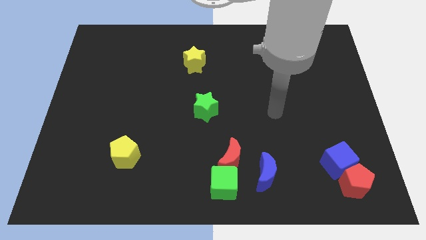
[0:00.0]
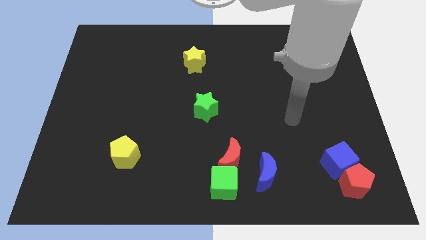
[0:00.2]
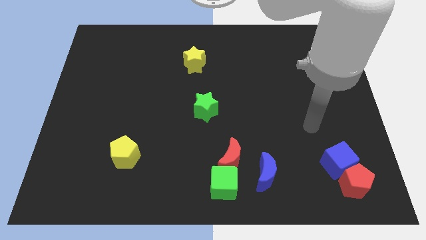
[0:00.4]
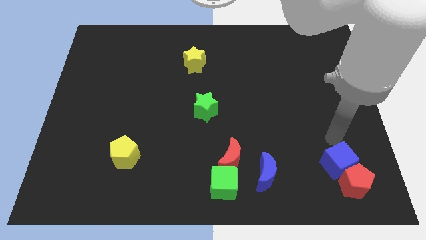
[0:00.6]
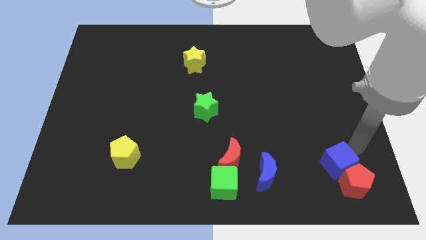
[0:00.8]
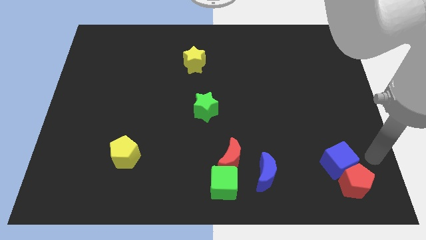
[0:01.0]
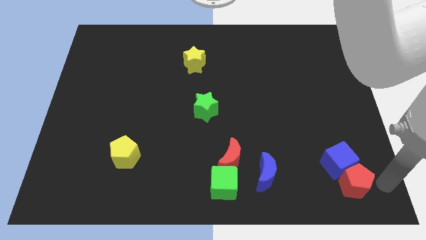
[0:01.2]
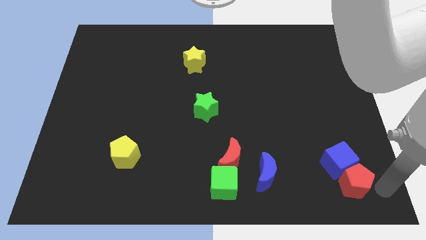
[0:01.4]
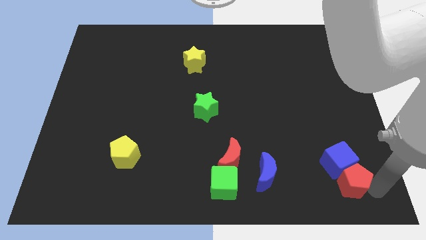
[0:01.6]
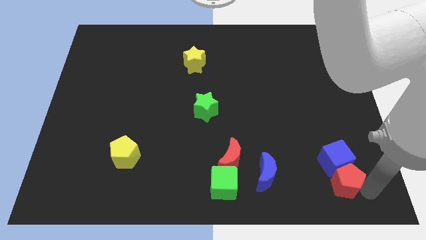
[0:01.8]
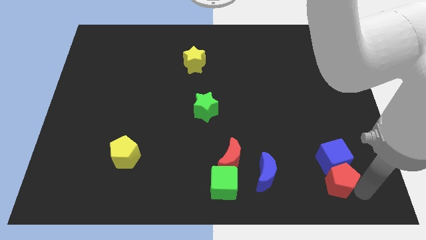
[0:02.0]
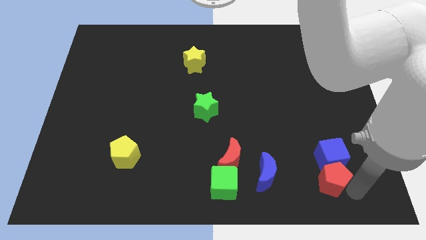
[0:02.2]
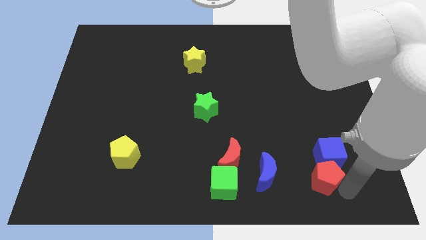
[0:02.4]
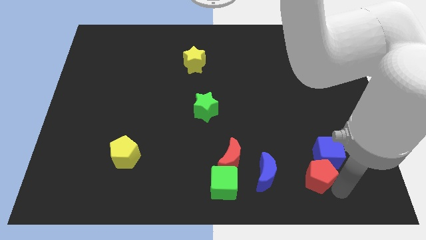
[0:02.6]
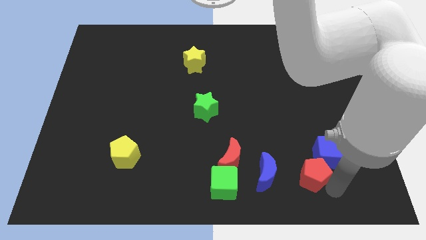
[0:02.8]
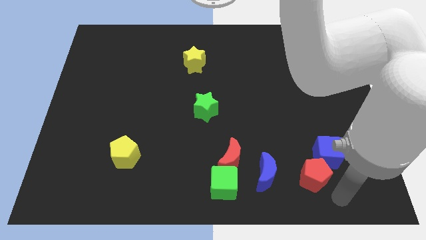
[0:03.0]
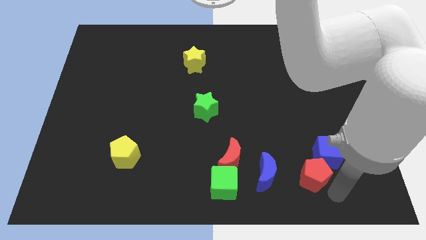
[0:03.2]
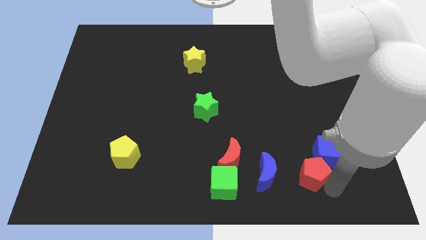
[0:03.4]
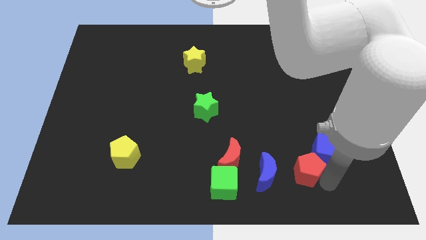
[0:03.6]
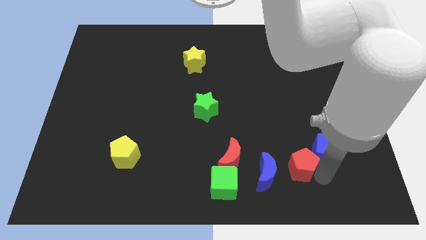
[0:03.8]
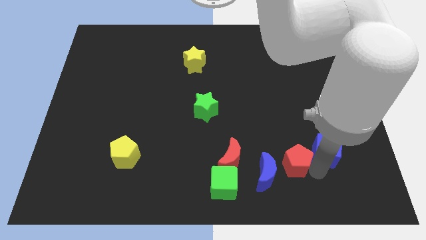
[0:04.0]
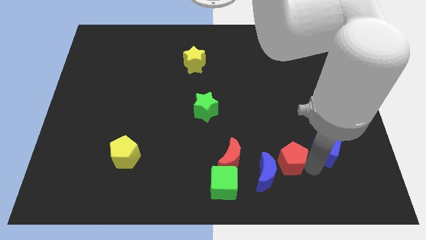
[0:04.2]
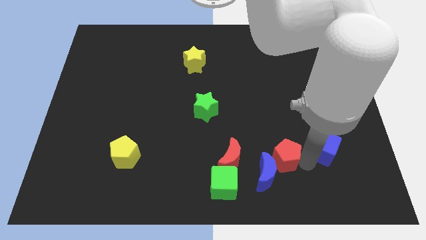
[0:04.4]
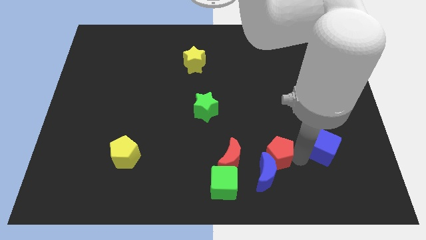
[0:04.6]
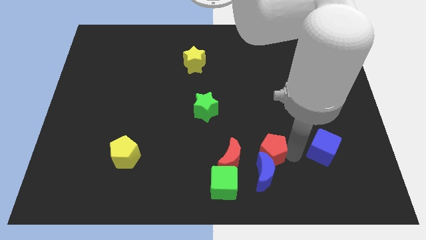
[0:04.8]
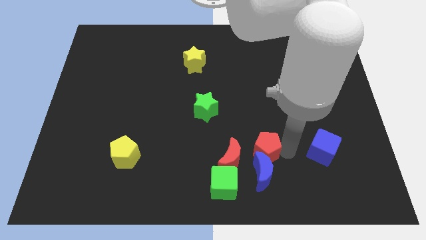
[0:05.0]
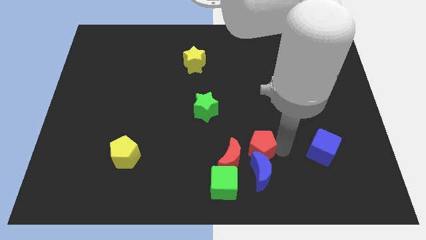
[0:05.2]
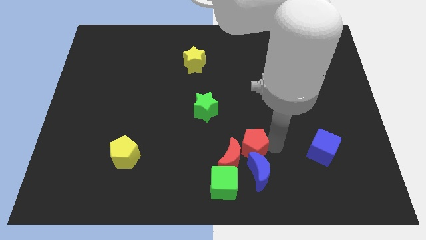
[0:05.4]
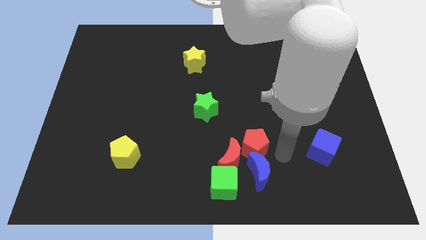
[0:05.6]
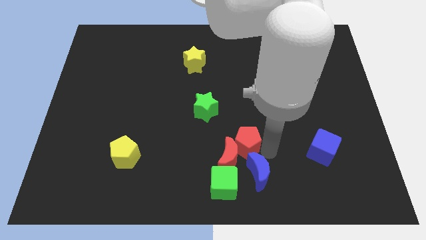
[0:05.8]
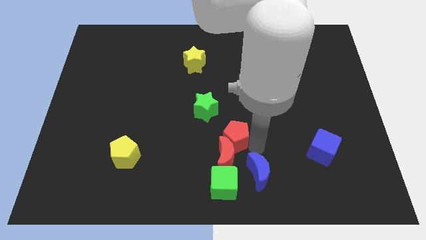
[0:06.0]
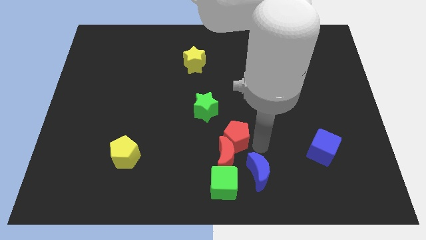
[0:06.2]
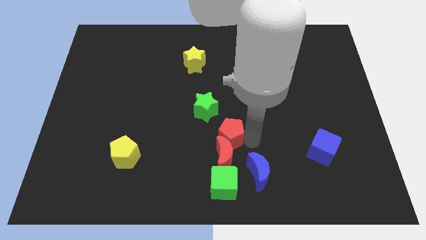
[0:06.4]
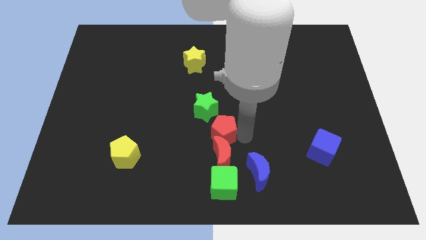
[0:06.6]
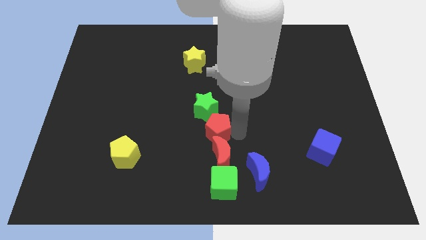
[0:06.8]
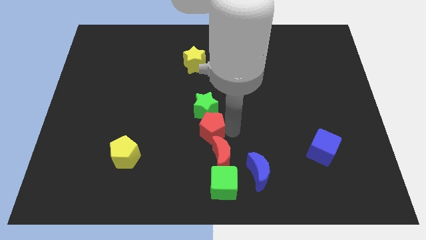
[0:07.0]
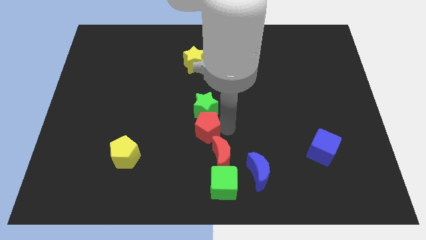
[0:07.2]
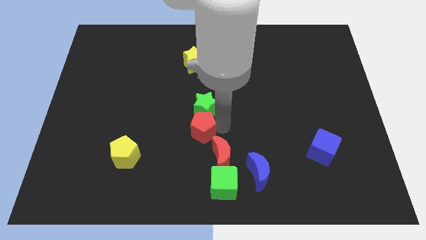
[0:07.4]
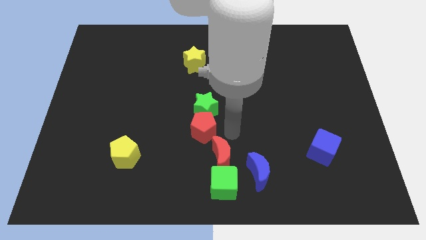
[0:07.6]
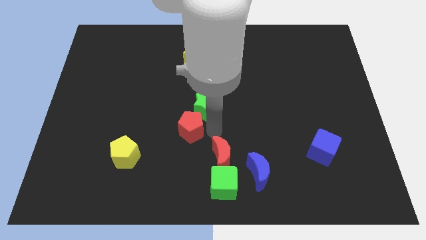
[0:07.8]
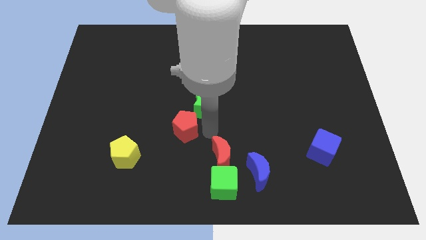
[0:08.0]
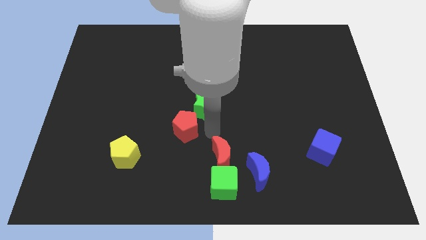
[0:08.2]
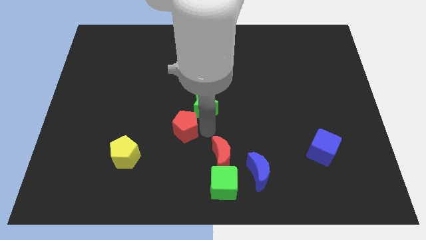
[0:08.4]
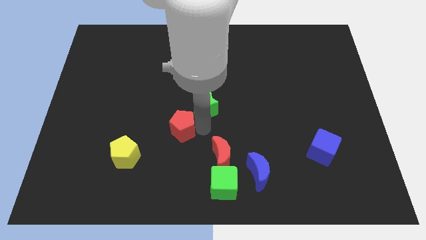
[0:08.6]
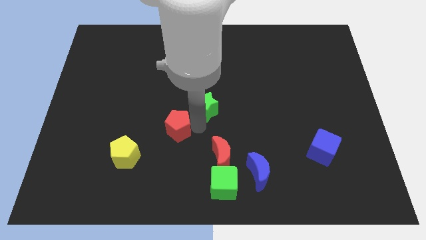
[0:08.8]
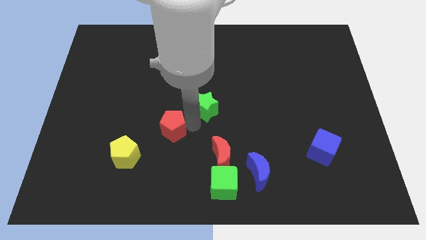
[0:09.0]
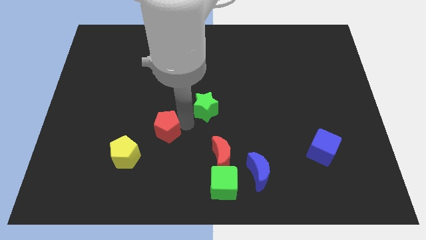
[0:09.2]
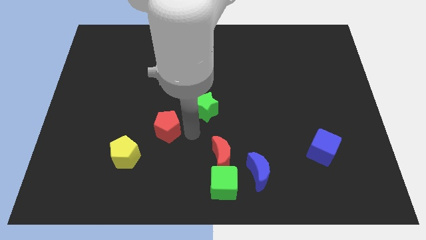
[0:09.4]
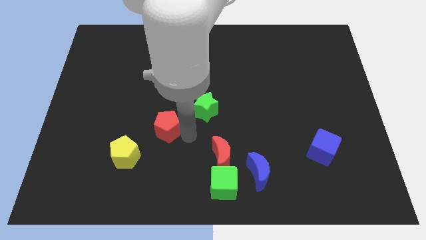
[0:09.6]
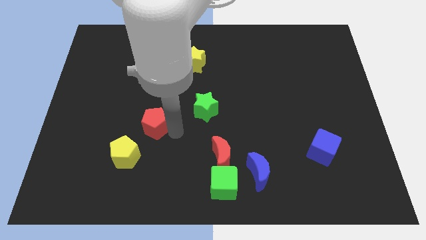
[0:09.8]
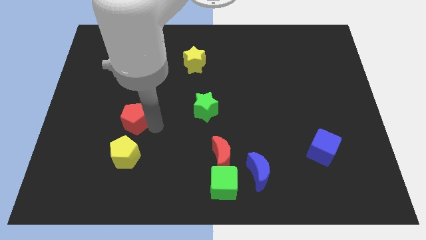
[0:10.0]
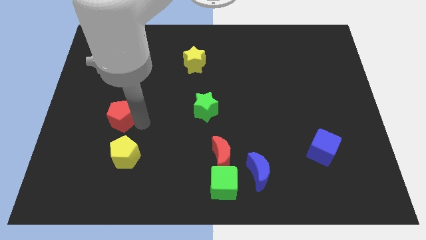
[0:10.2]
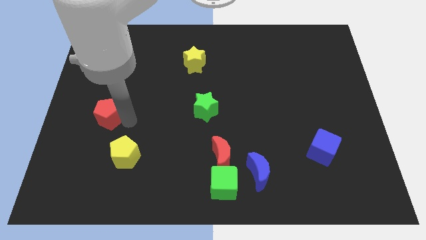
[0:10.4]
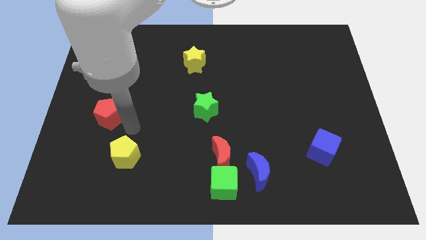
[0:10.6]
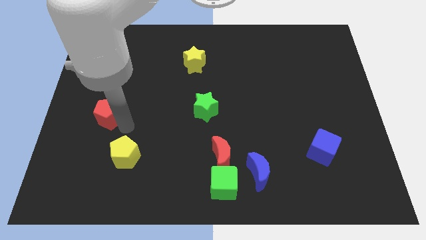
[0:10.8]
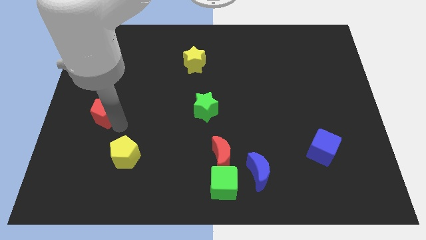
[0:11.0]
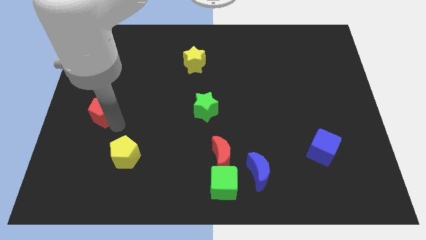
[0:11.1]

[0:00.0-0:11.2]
push the red pentagon to the center left

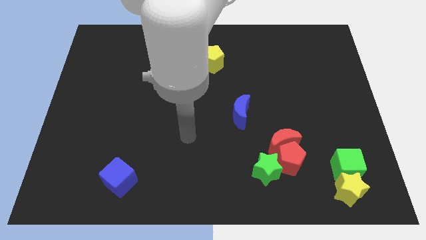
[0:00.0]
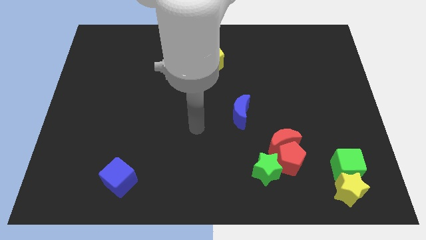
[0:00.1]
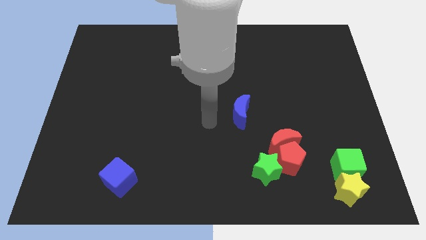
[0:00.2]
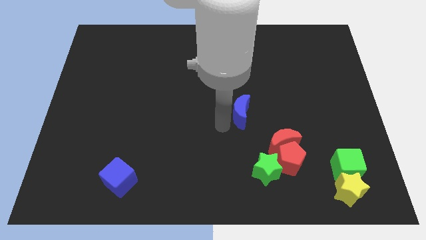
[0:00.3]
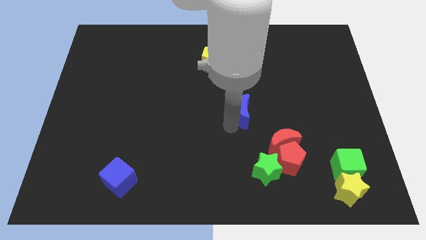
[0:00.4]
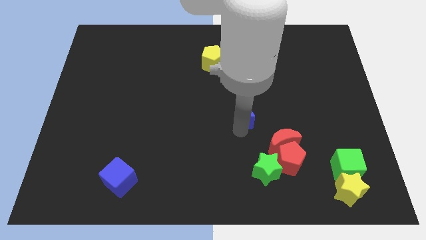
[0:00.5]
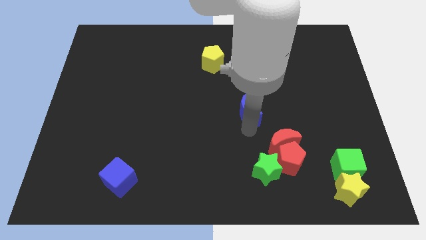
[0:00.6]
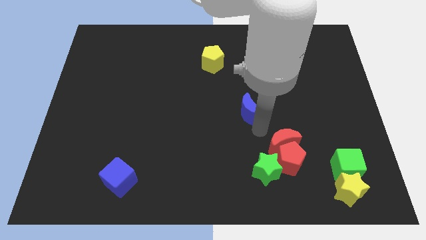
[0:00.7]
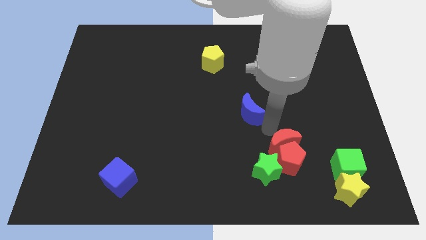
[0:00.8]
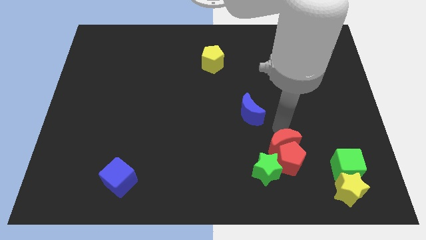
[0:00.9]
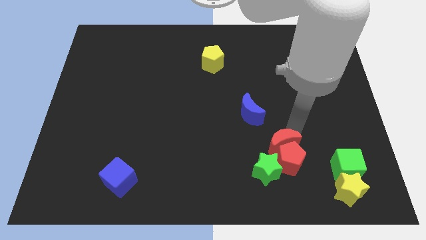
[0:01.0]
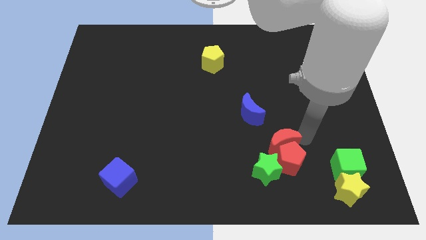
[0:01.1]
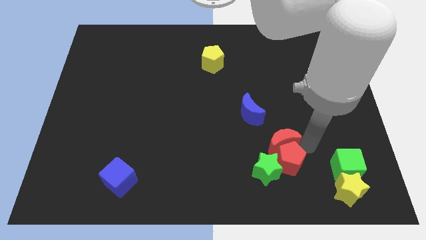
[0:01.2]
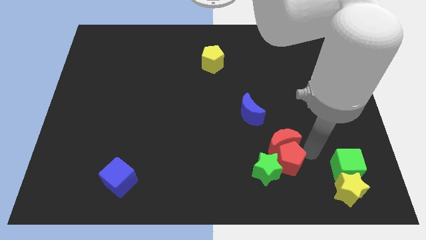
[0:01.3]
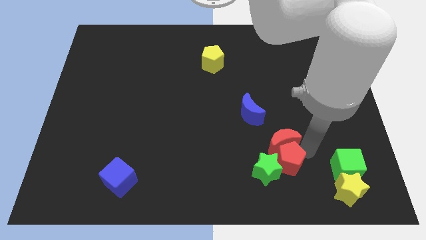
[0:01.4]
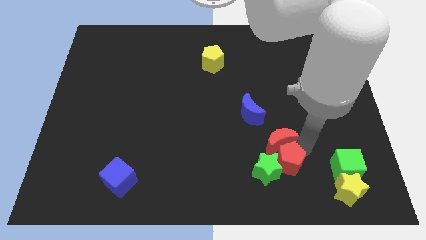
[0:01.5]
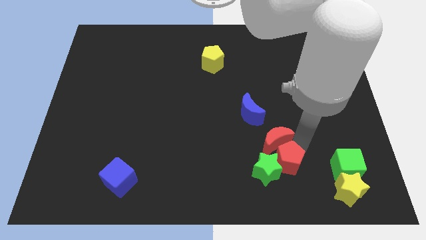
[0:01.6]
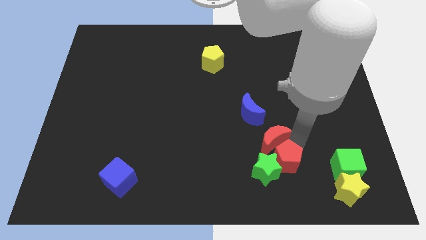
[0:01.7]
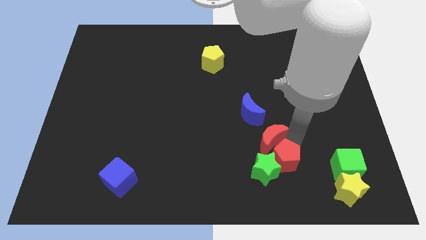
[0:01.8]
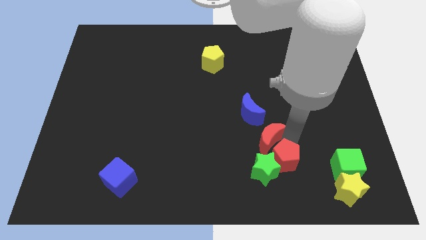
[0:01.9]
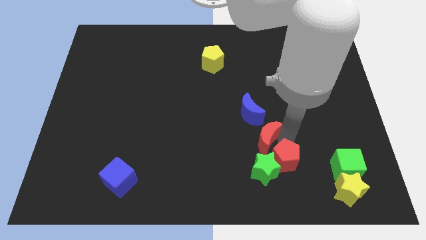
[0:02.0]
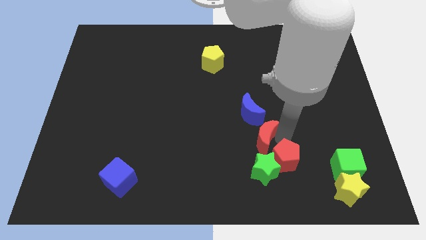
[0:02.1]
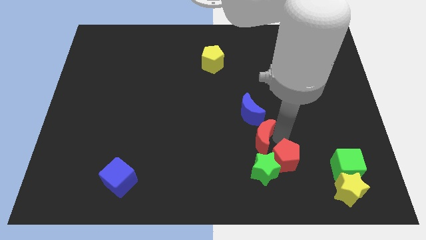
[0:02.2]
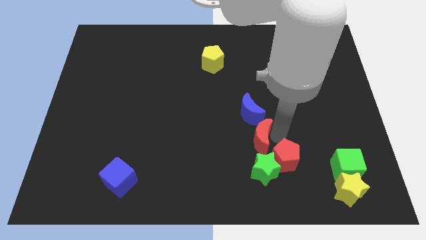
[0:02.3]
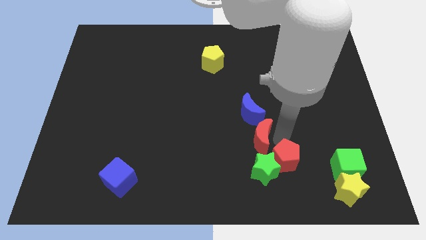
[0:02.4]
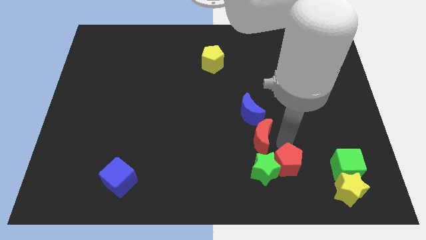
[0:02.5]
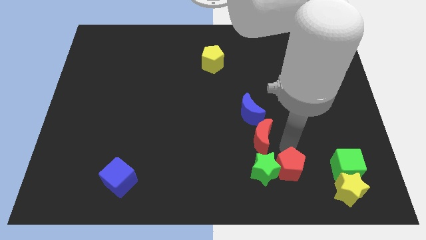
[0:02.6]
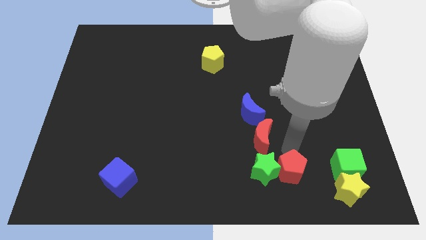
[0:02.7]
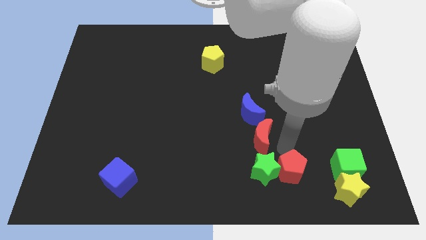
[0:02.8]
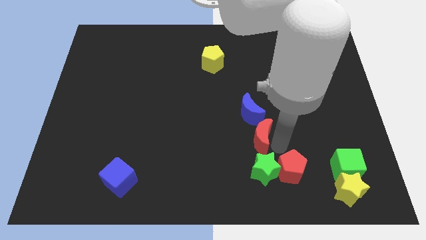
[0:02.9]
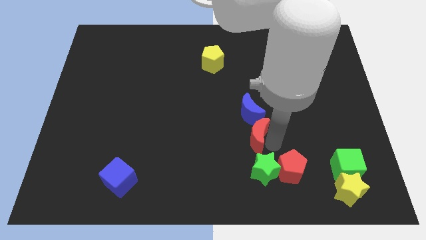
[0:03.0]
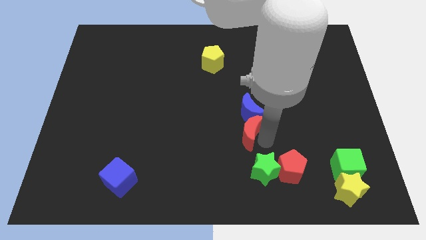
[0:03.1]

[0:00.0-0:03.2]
slide the red moon to the center
